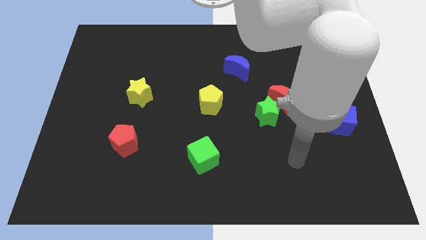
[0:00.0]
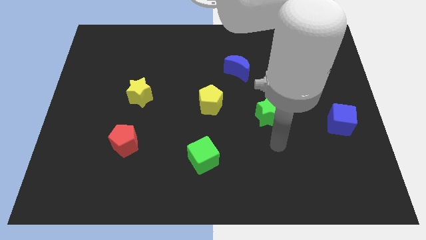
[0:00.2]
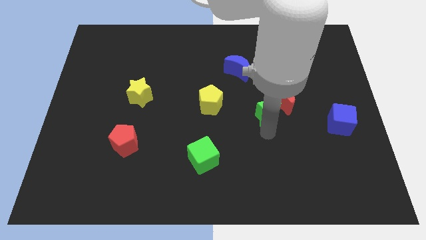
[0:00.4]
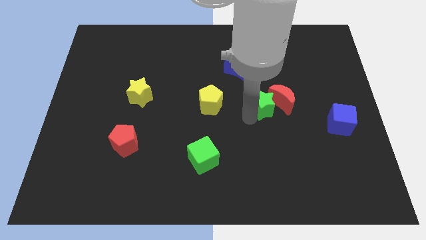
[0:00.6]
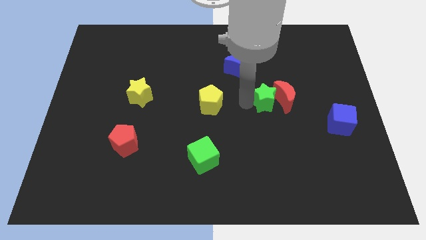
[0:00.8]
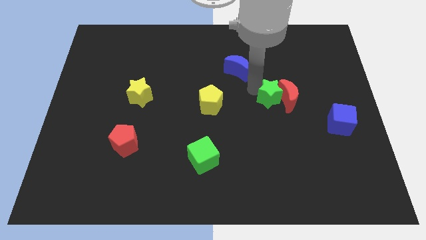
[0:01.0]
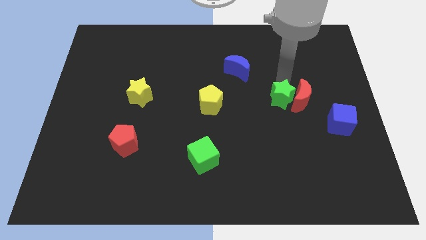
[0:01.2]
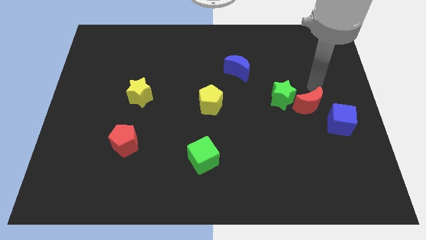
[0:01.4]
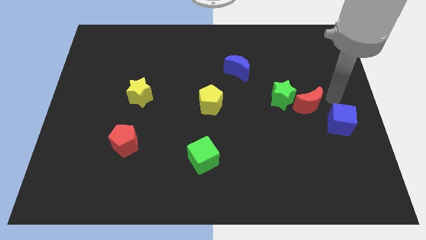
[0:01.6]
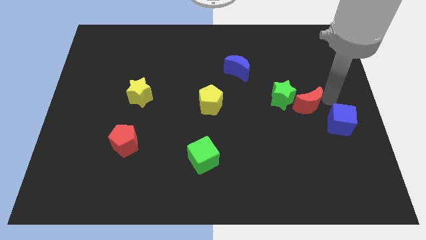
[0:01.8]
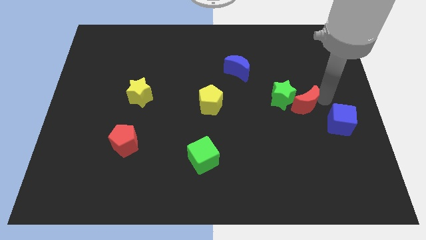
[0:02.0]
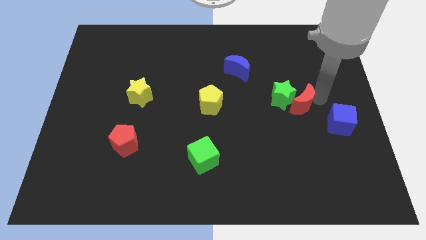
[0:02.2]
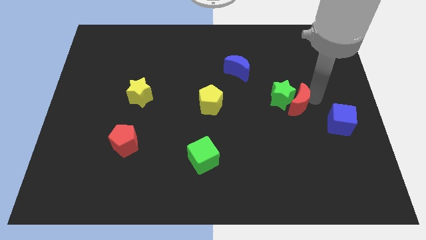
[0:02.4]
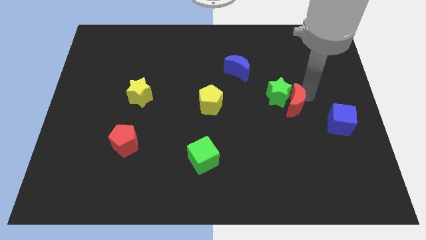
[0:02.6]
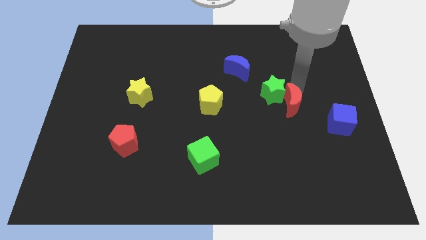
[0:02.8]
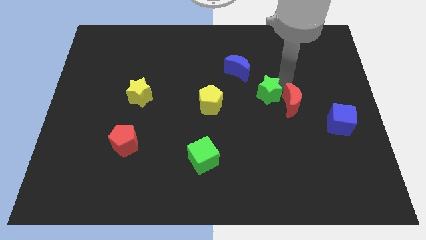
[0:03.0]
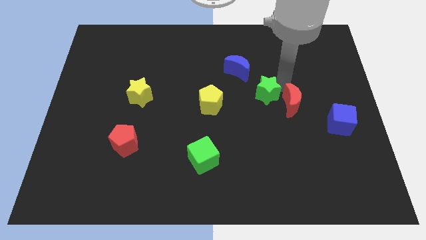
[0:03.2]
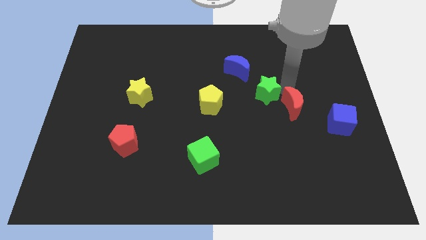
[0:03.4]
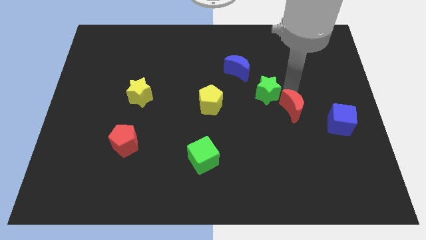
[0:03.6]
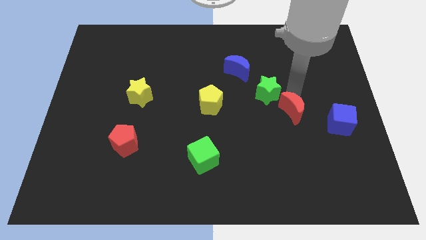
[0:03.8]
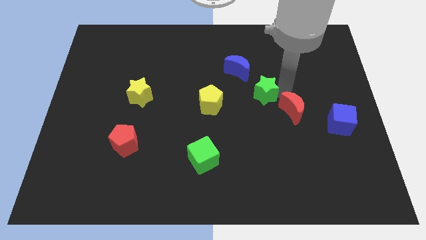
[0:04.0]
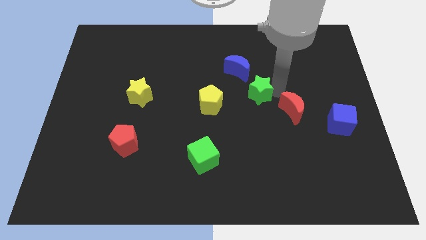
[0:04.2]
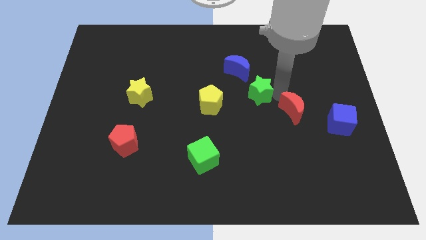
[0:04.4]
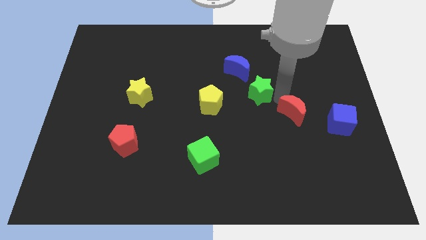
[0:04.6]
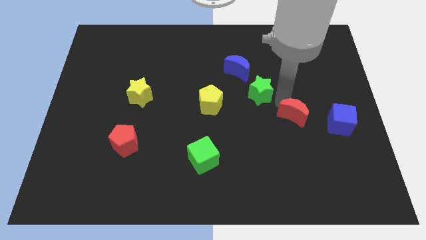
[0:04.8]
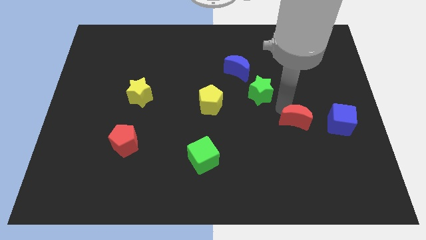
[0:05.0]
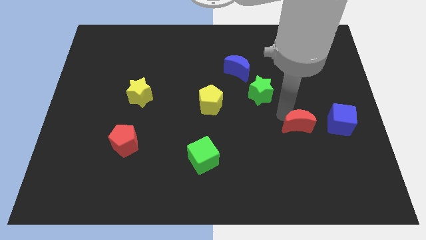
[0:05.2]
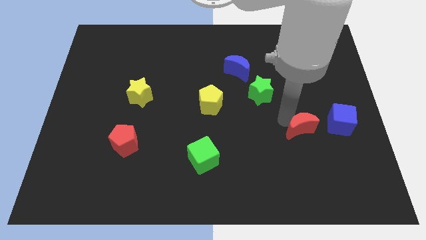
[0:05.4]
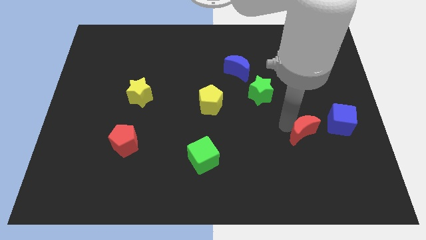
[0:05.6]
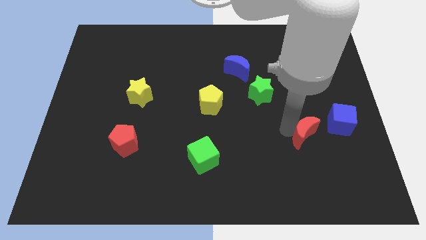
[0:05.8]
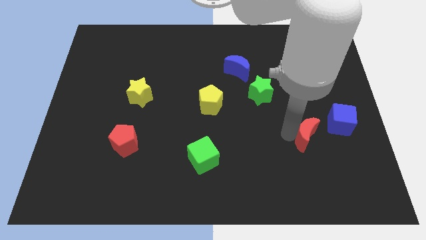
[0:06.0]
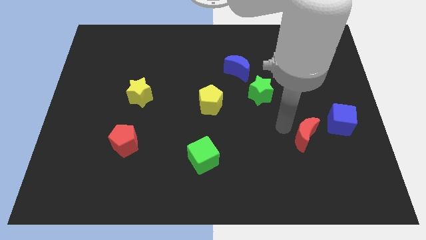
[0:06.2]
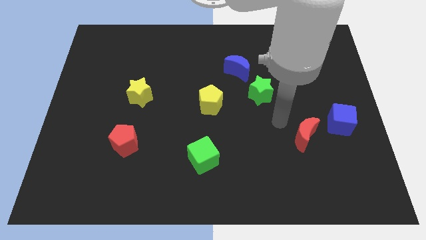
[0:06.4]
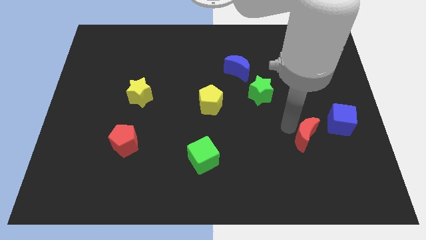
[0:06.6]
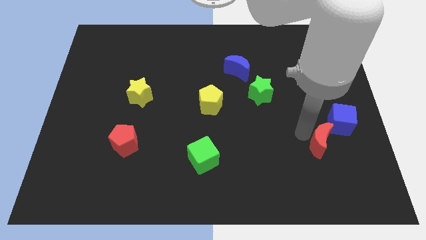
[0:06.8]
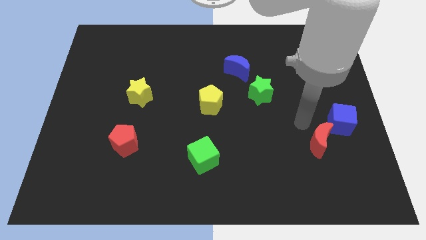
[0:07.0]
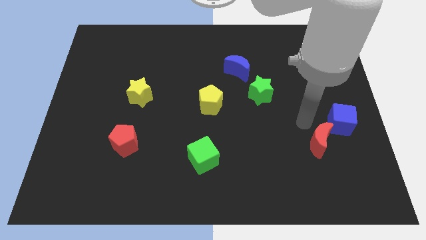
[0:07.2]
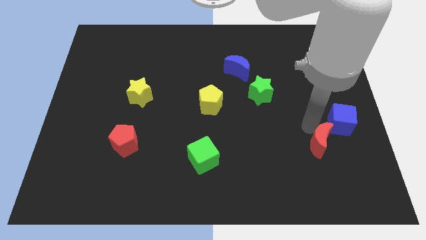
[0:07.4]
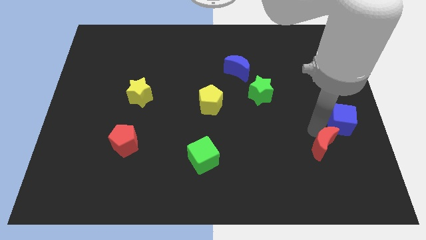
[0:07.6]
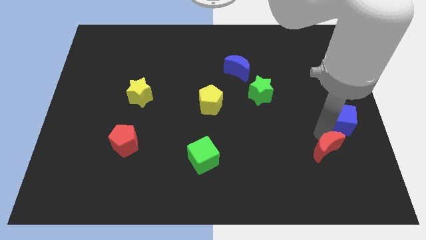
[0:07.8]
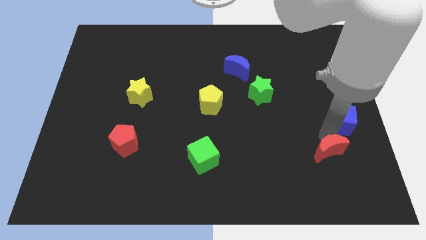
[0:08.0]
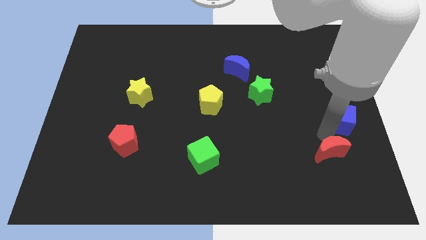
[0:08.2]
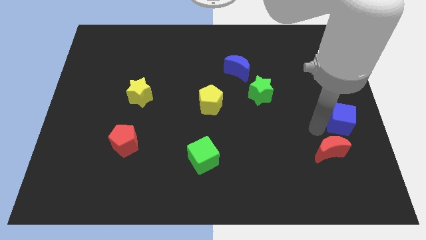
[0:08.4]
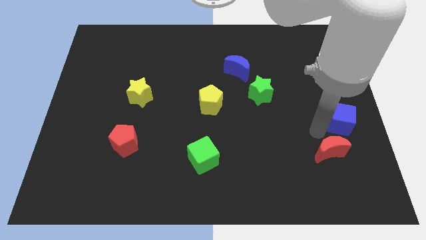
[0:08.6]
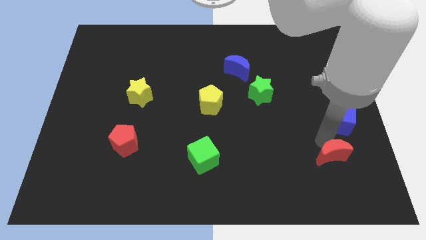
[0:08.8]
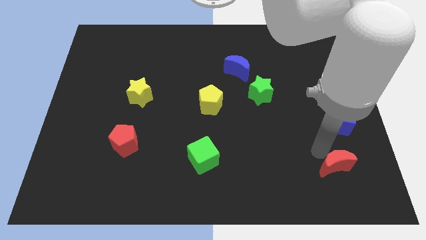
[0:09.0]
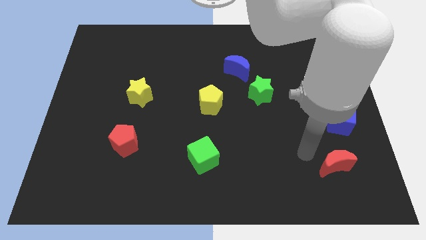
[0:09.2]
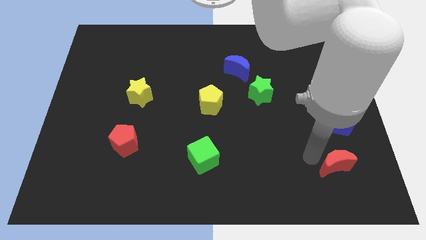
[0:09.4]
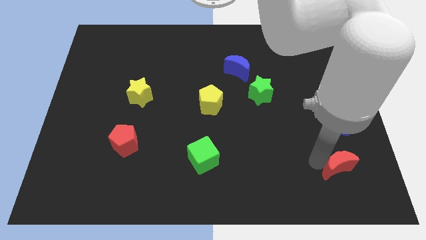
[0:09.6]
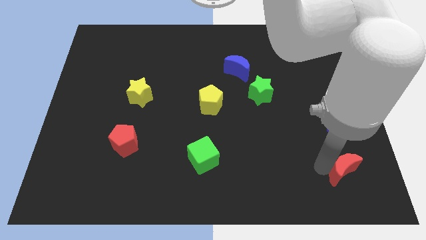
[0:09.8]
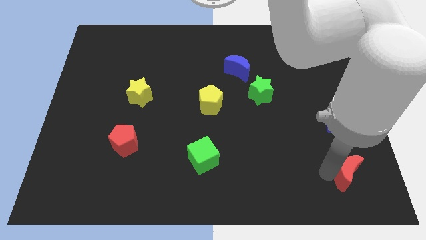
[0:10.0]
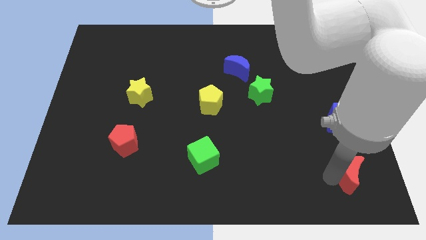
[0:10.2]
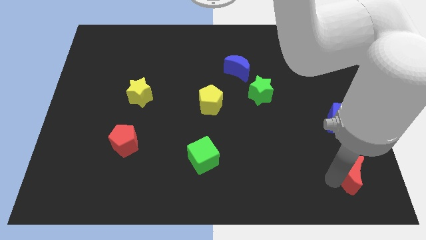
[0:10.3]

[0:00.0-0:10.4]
put the red moon to the lower right corner

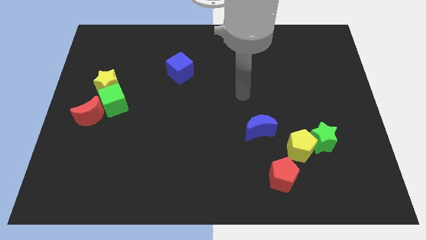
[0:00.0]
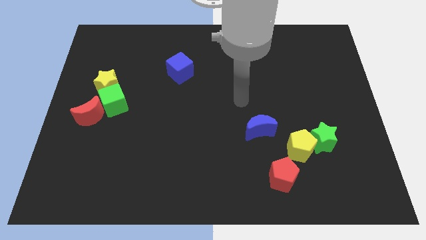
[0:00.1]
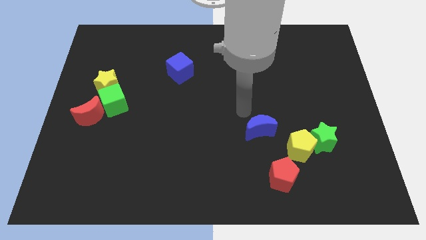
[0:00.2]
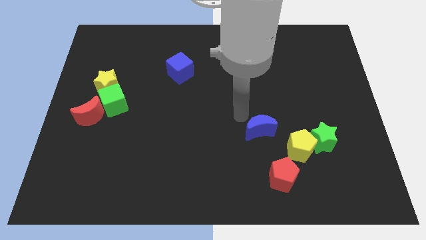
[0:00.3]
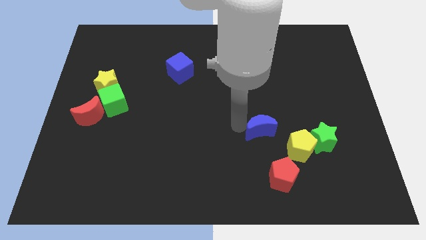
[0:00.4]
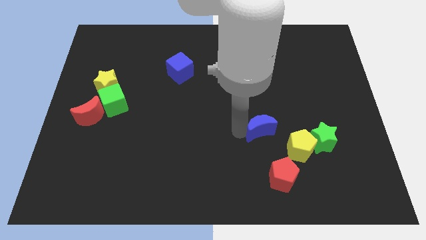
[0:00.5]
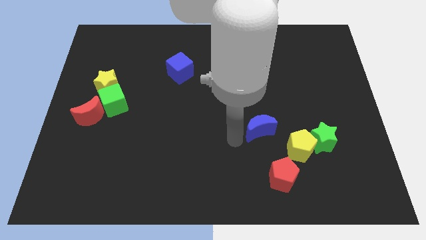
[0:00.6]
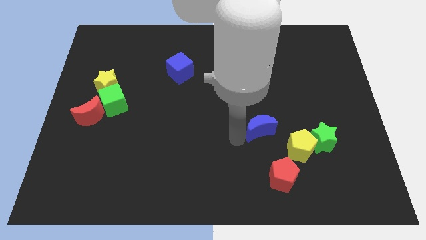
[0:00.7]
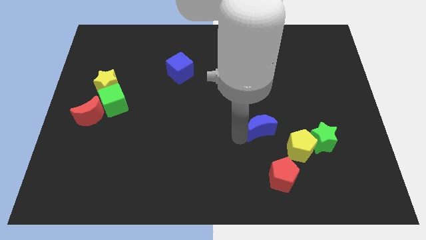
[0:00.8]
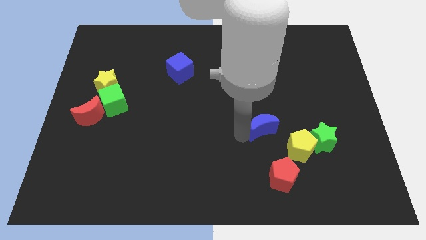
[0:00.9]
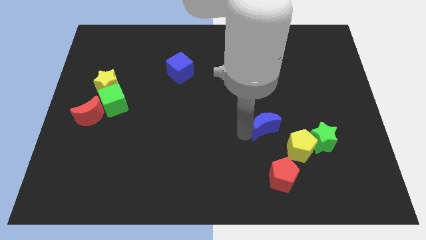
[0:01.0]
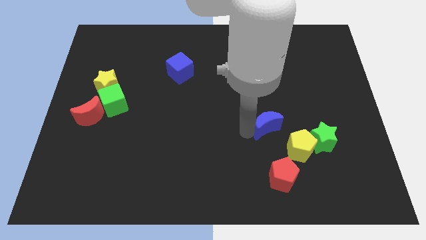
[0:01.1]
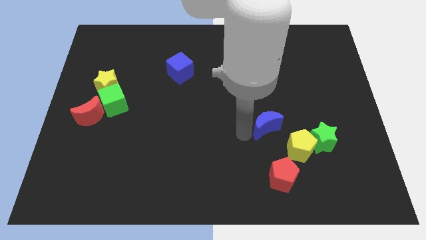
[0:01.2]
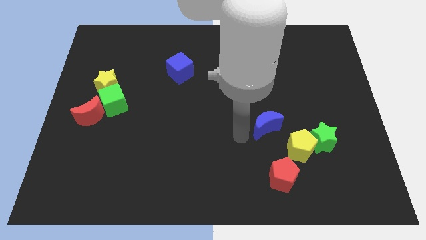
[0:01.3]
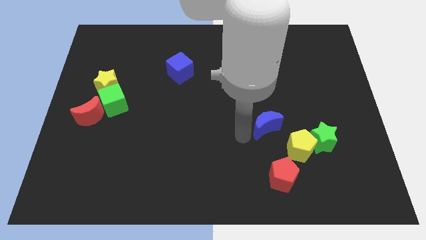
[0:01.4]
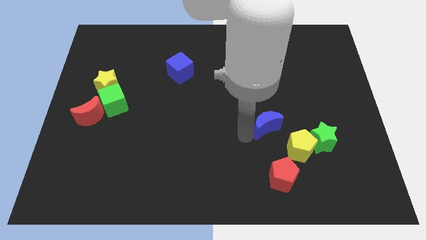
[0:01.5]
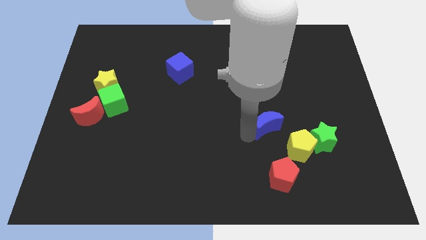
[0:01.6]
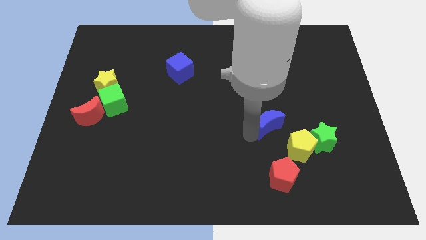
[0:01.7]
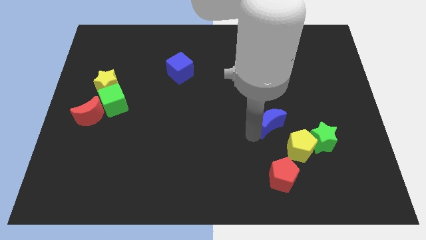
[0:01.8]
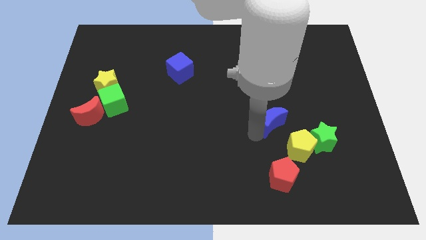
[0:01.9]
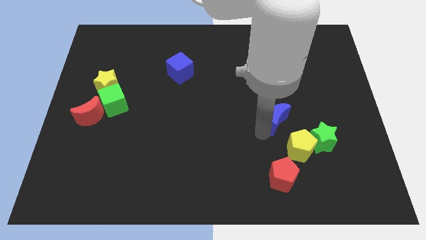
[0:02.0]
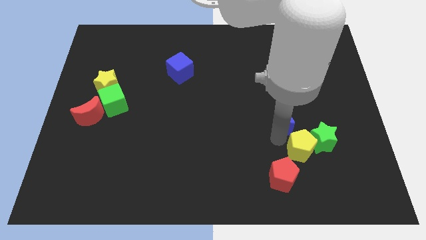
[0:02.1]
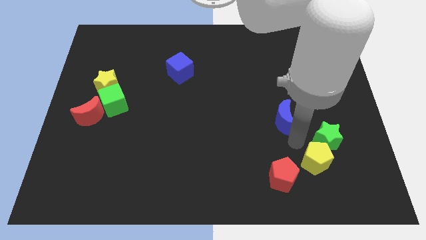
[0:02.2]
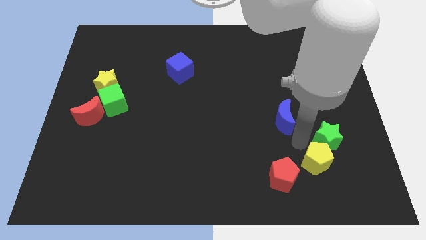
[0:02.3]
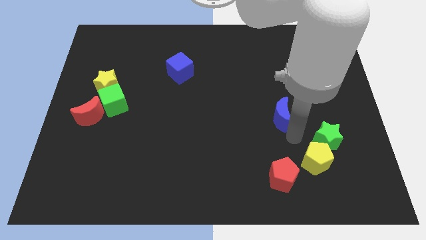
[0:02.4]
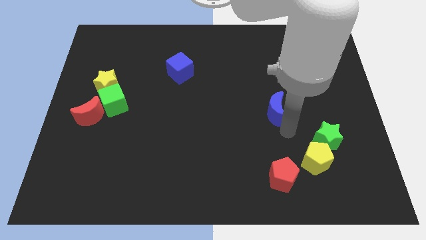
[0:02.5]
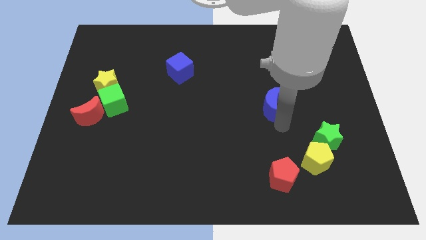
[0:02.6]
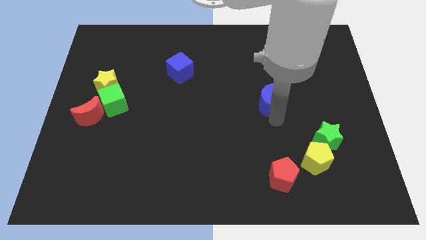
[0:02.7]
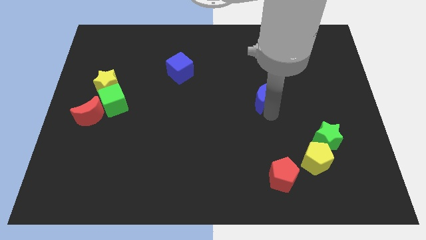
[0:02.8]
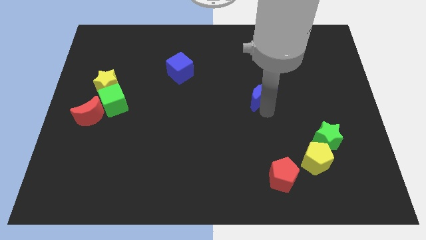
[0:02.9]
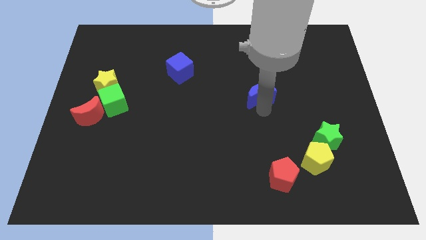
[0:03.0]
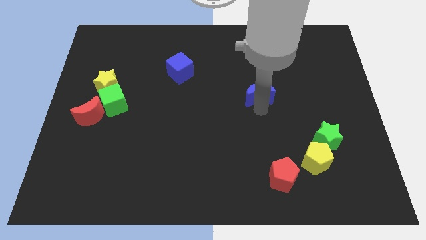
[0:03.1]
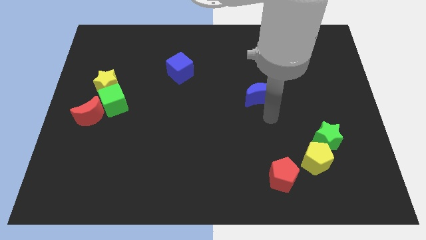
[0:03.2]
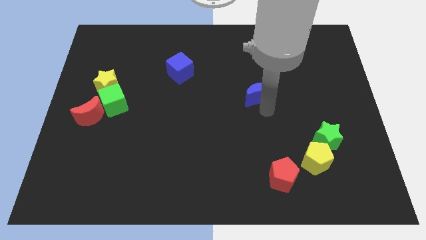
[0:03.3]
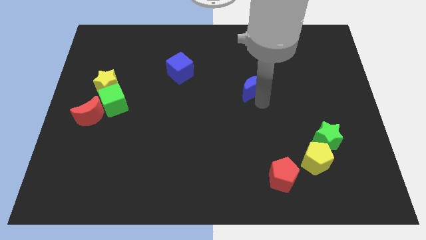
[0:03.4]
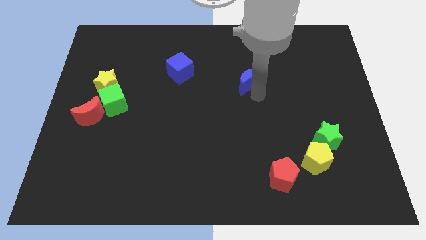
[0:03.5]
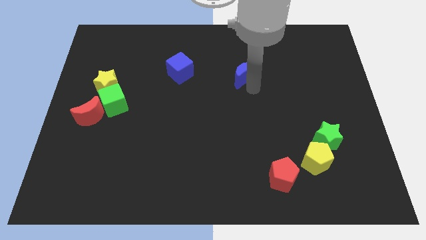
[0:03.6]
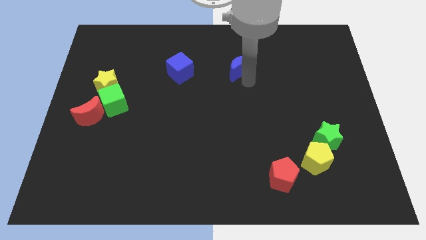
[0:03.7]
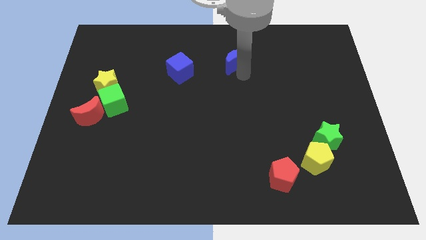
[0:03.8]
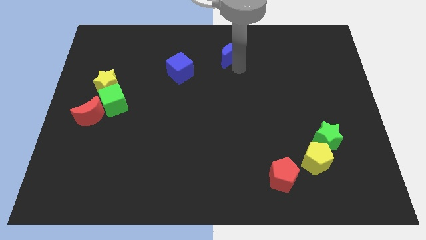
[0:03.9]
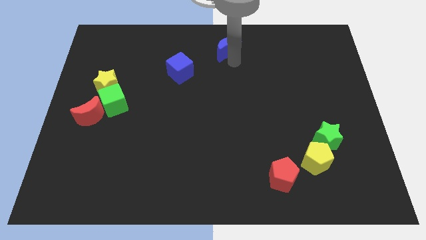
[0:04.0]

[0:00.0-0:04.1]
push the blue moon to the towards your base
